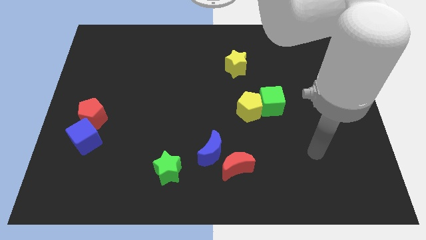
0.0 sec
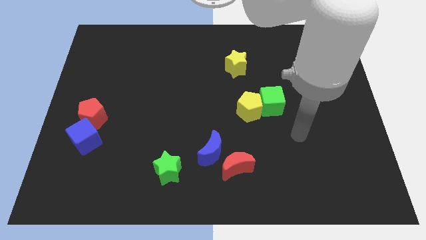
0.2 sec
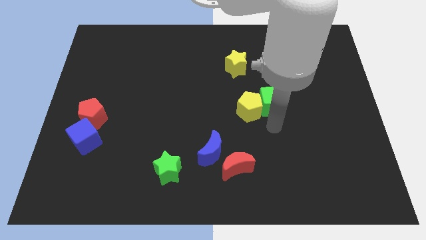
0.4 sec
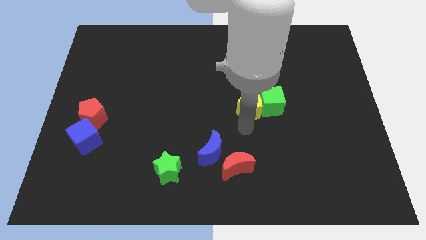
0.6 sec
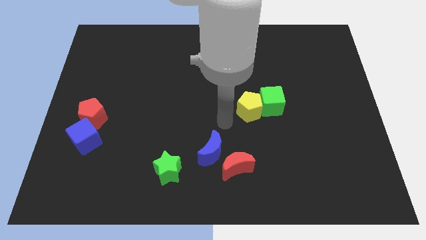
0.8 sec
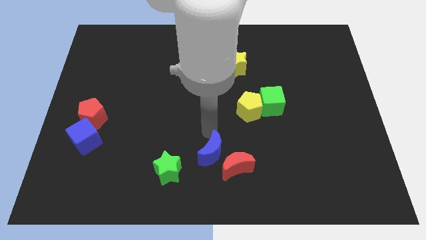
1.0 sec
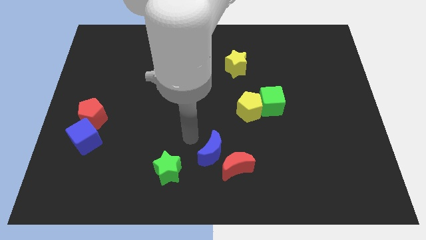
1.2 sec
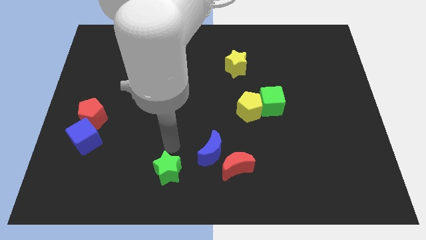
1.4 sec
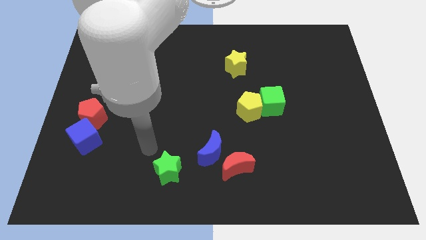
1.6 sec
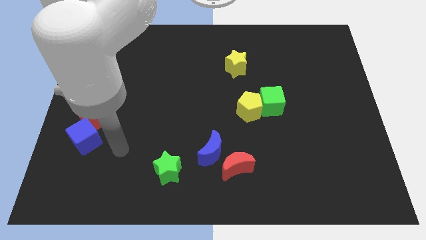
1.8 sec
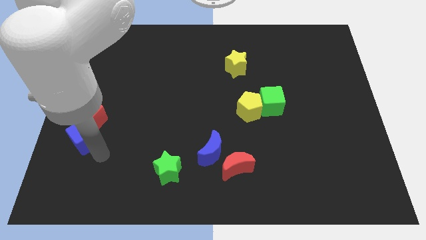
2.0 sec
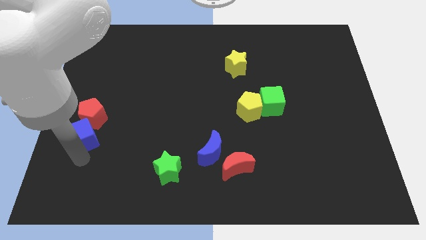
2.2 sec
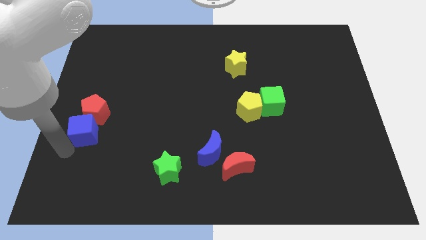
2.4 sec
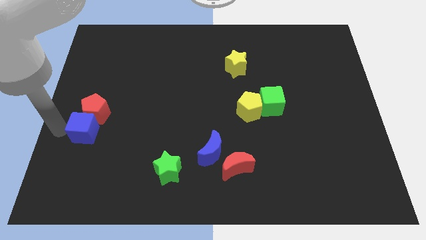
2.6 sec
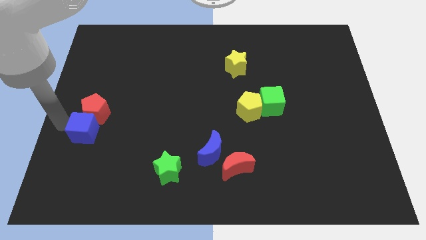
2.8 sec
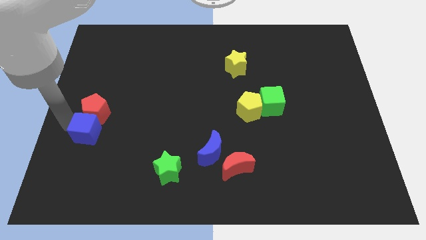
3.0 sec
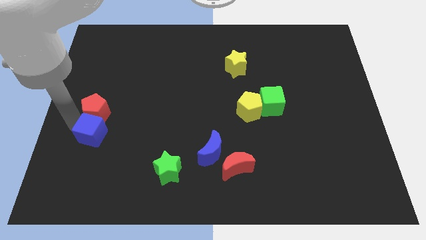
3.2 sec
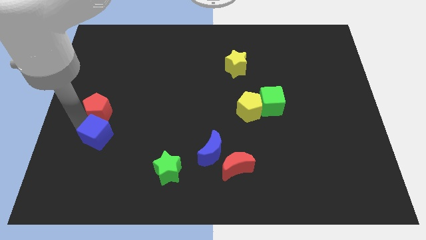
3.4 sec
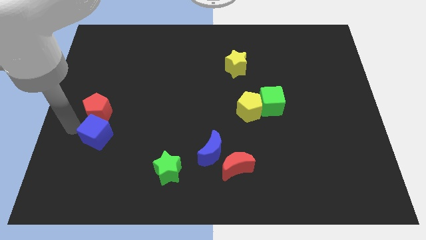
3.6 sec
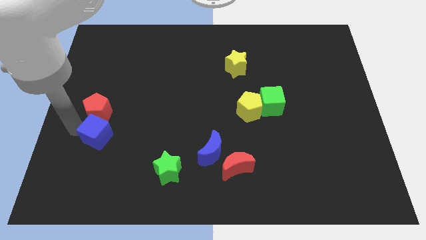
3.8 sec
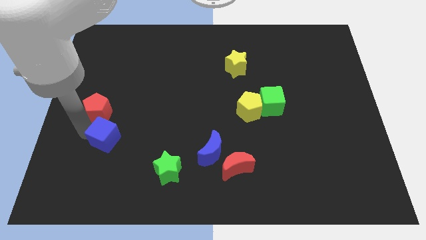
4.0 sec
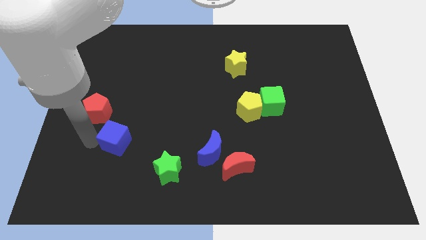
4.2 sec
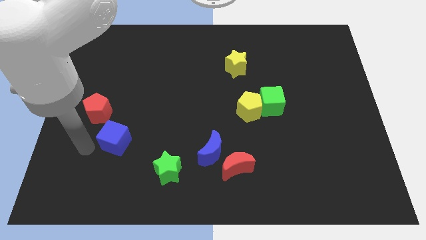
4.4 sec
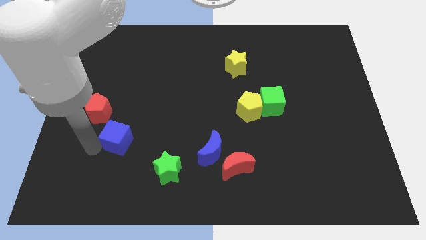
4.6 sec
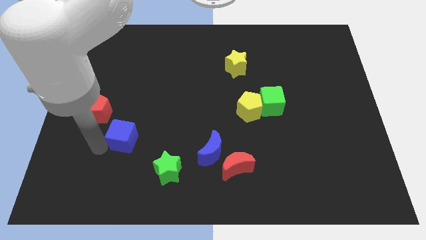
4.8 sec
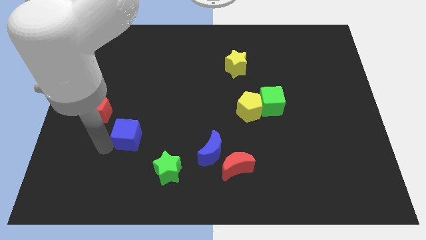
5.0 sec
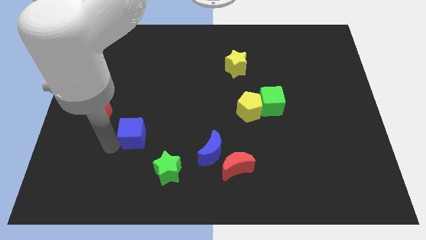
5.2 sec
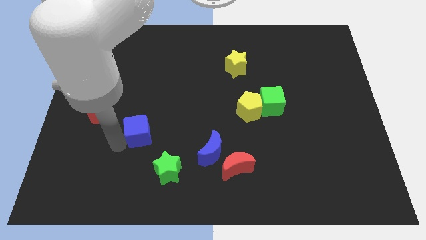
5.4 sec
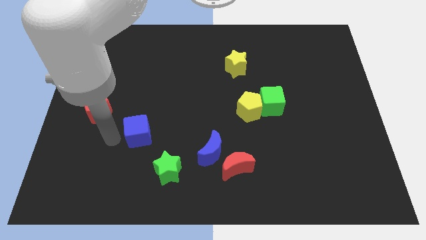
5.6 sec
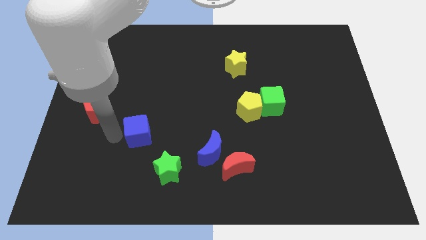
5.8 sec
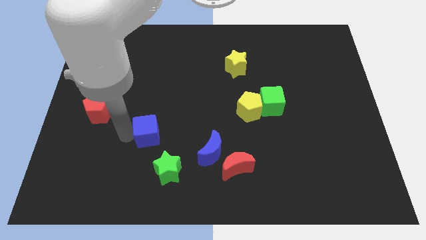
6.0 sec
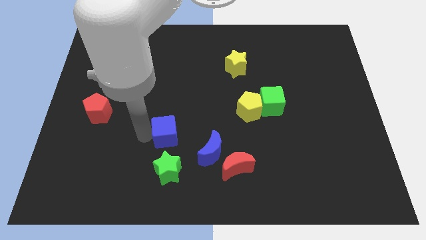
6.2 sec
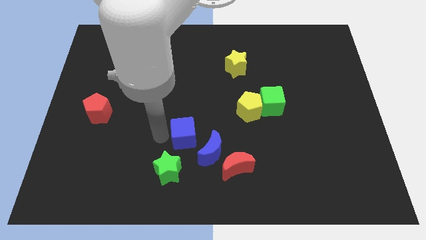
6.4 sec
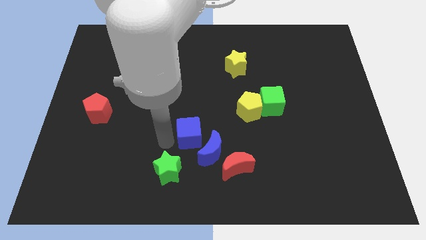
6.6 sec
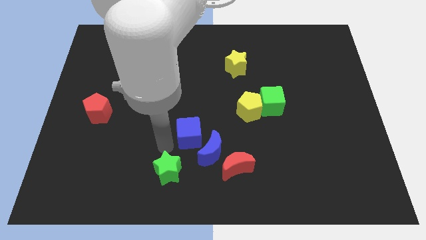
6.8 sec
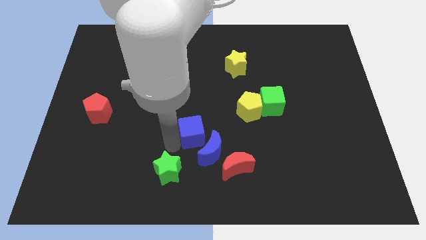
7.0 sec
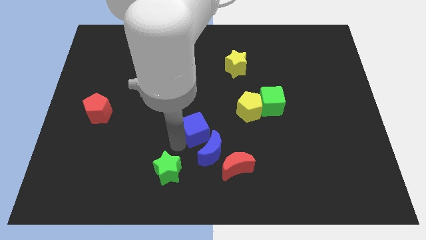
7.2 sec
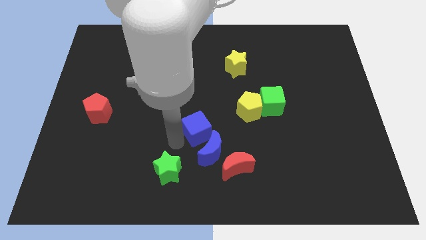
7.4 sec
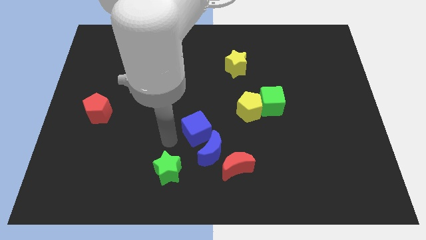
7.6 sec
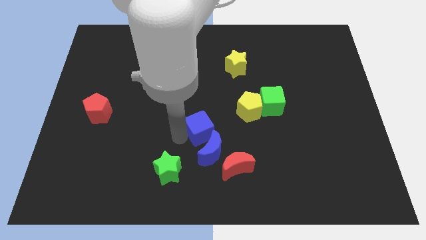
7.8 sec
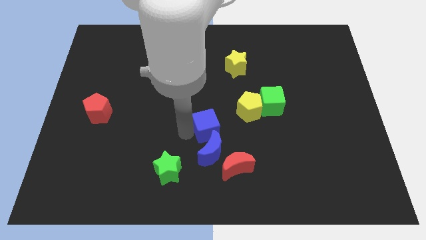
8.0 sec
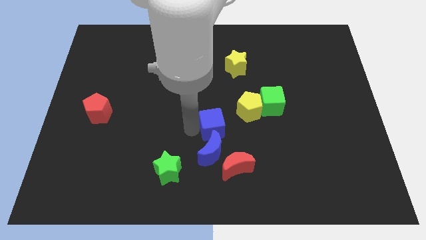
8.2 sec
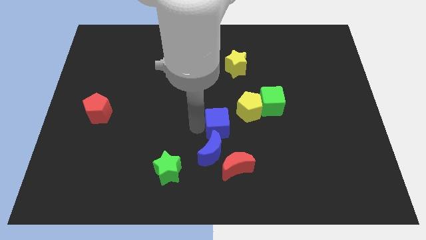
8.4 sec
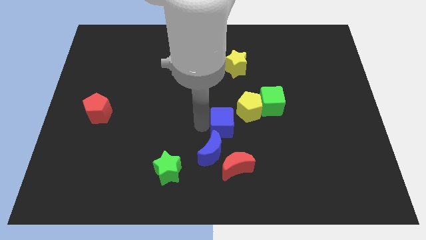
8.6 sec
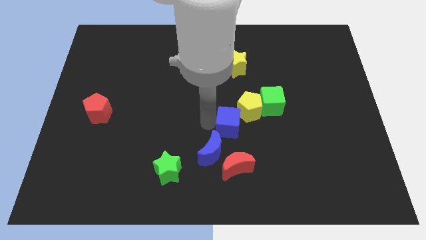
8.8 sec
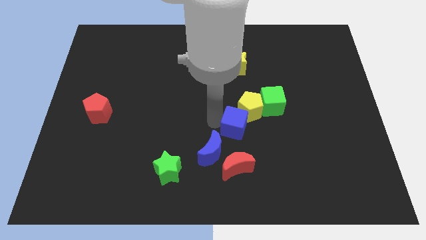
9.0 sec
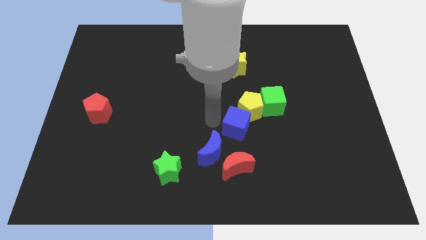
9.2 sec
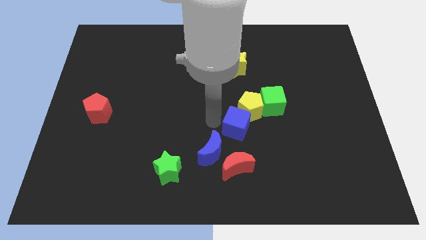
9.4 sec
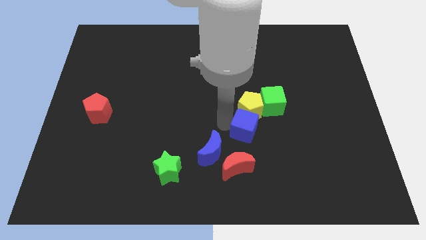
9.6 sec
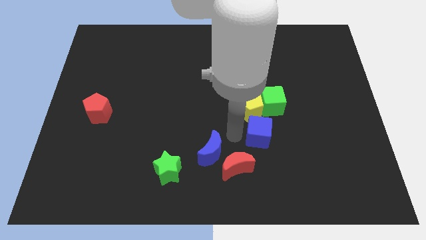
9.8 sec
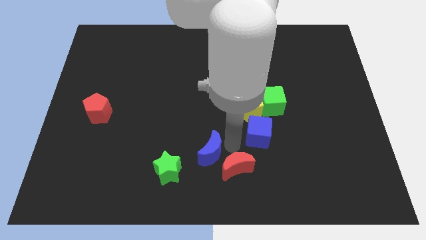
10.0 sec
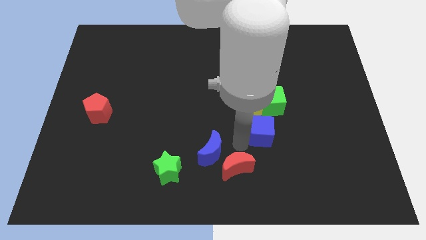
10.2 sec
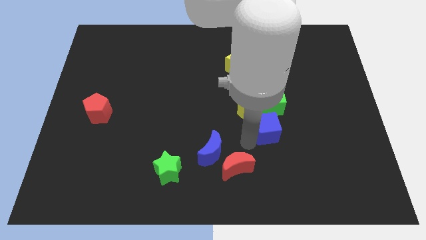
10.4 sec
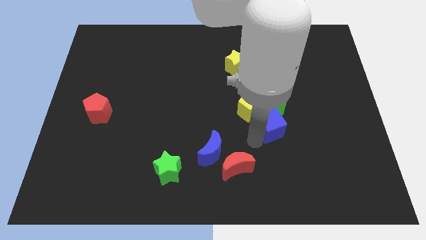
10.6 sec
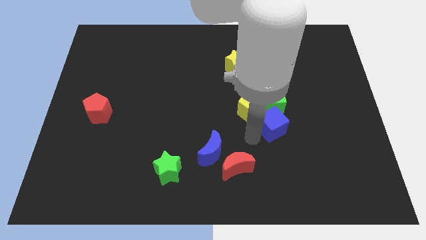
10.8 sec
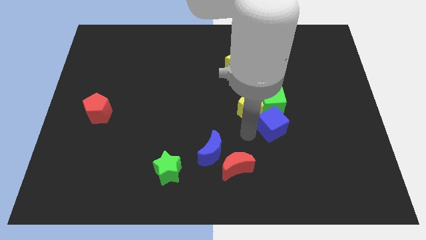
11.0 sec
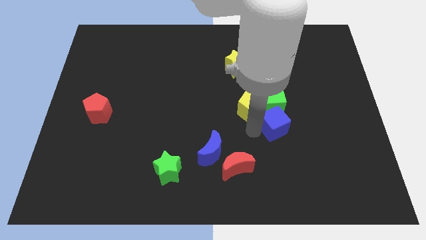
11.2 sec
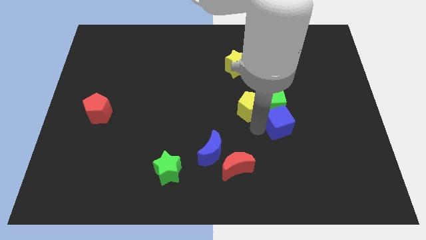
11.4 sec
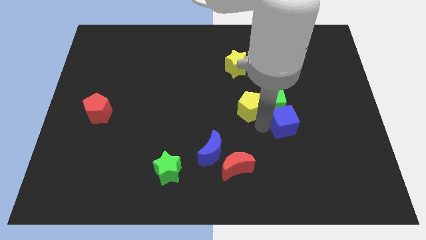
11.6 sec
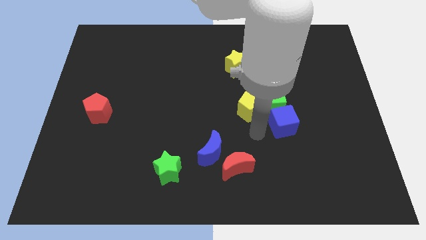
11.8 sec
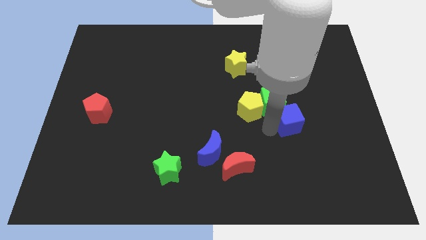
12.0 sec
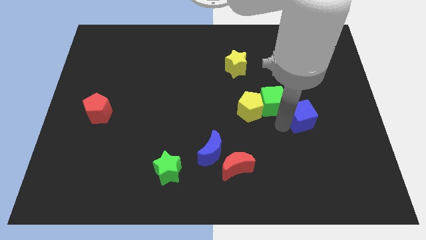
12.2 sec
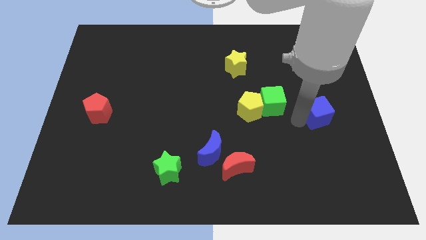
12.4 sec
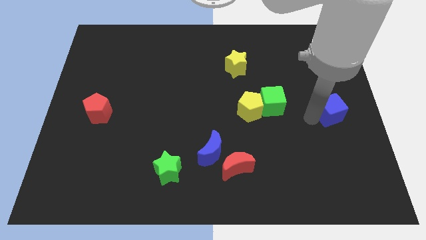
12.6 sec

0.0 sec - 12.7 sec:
put the blue cube to the center right
